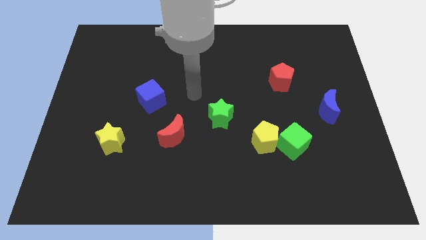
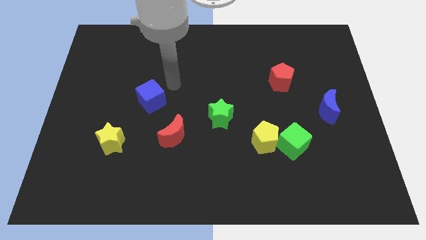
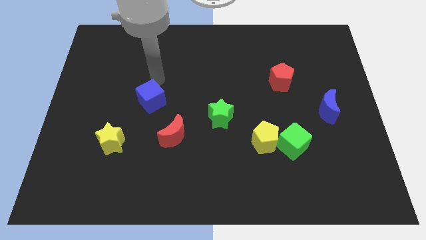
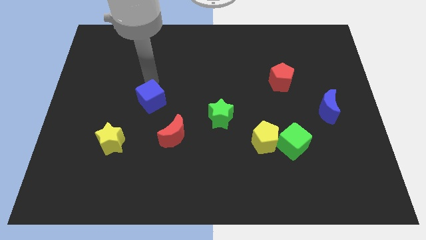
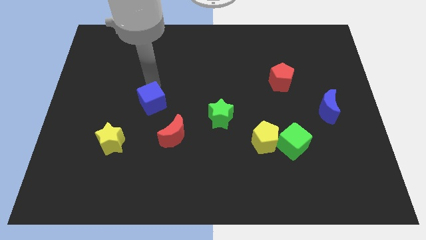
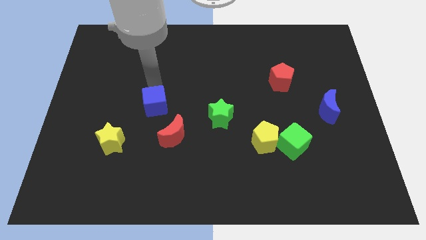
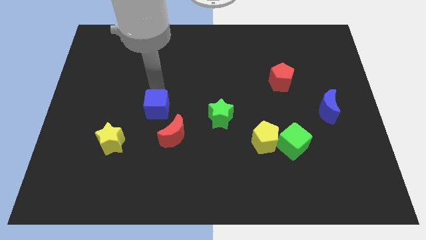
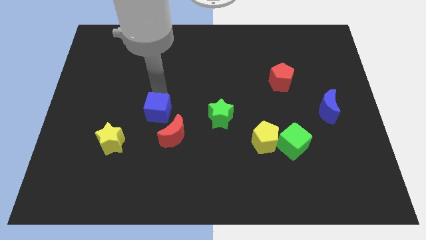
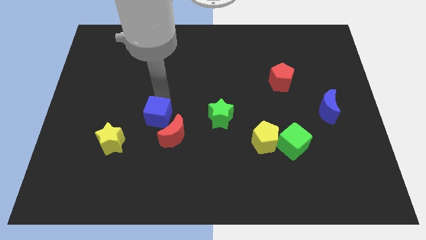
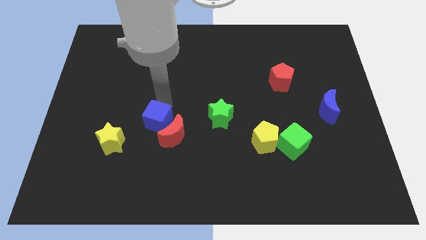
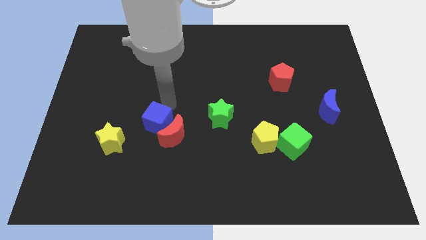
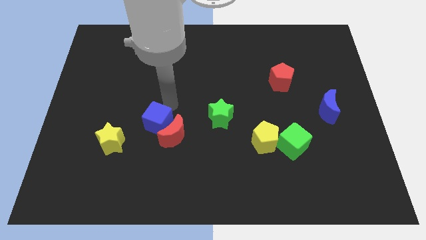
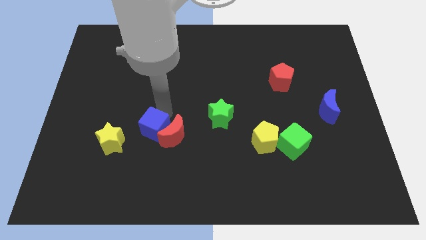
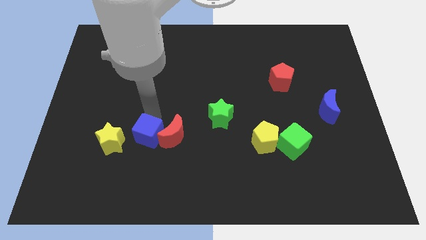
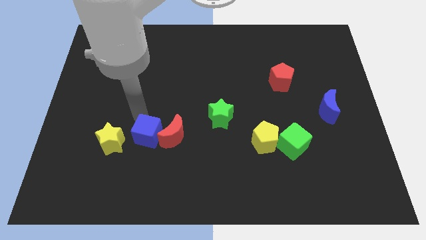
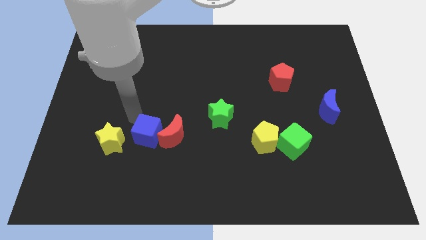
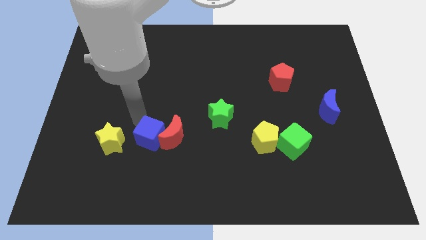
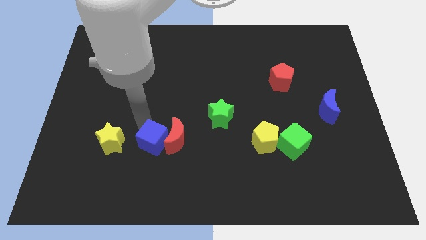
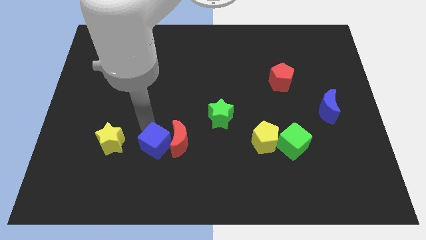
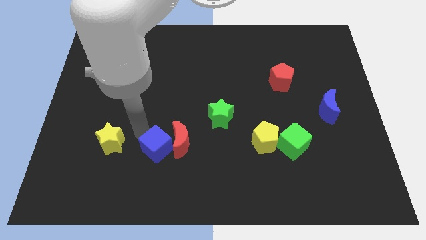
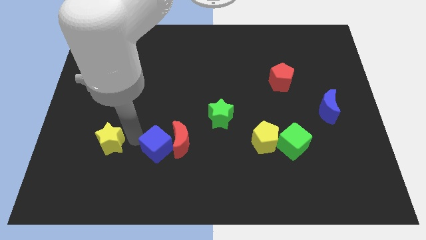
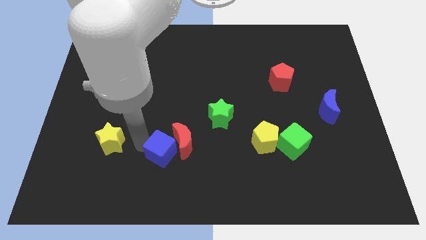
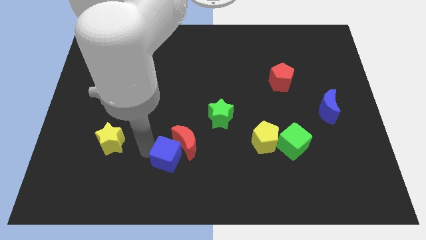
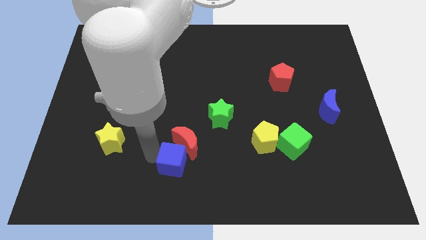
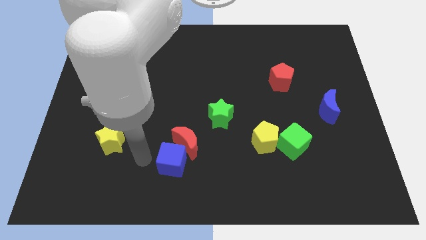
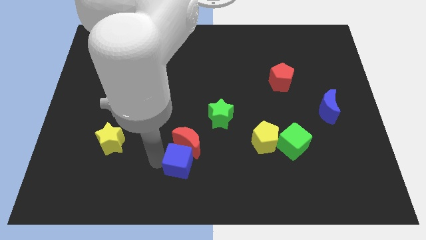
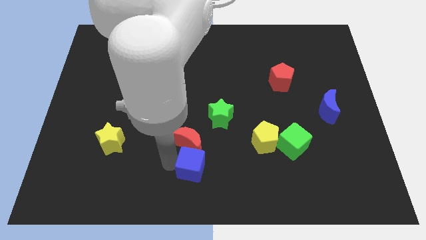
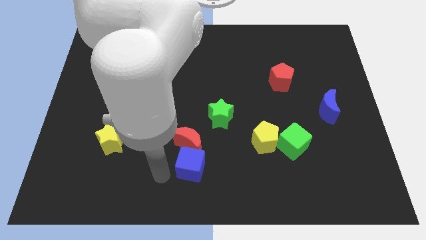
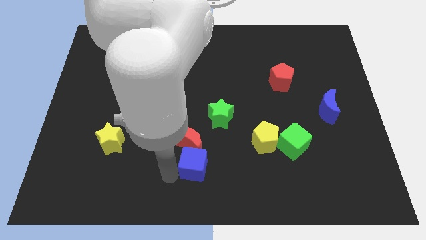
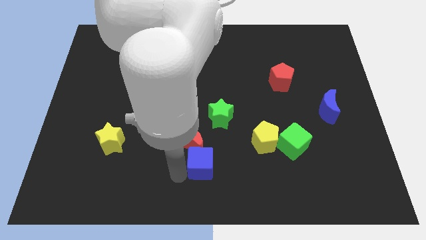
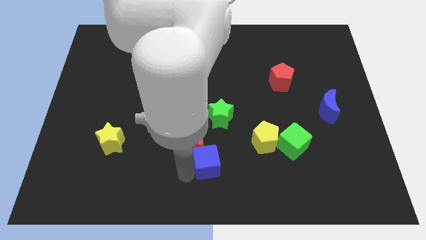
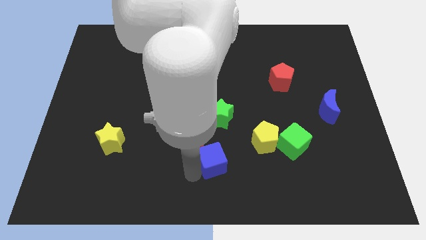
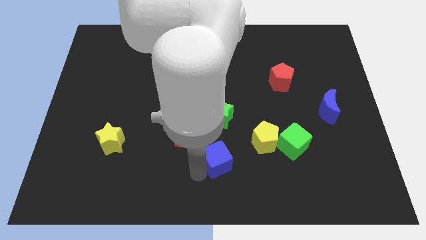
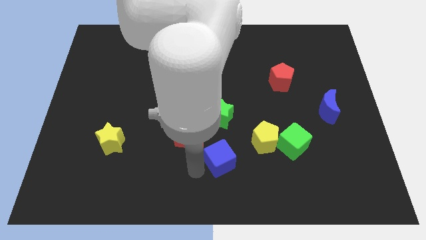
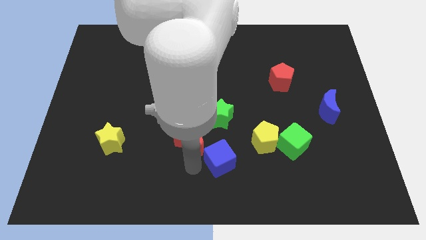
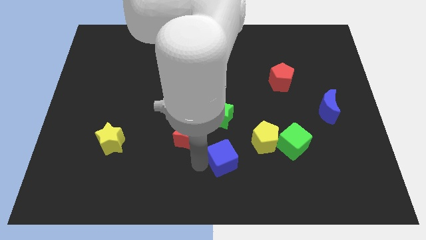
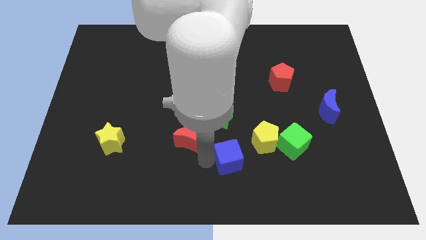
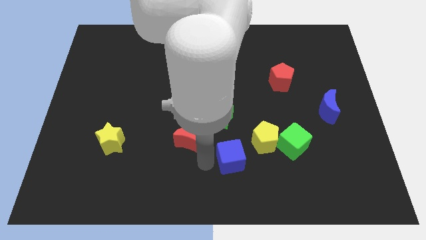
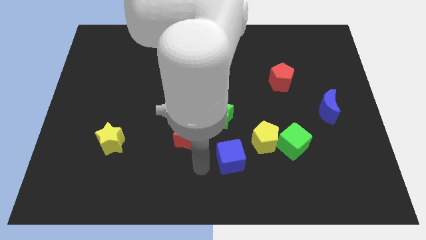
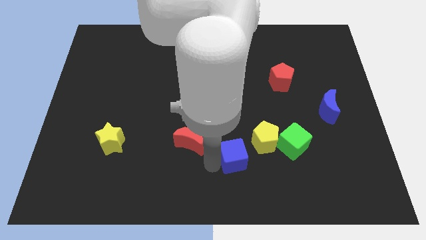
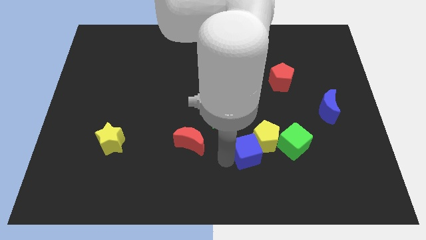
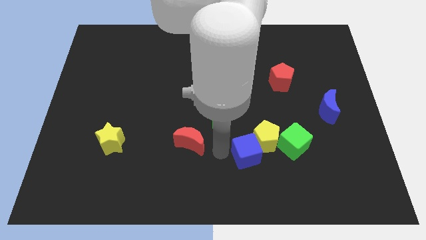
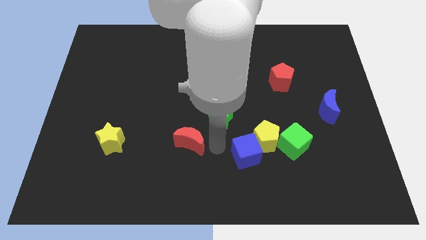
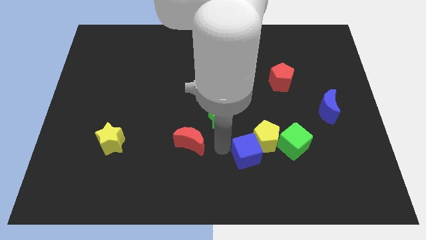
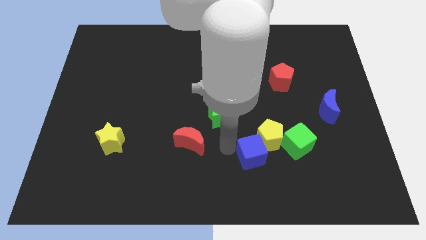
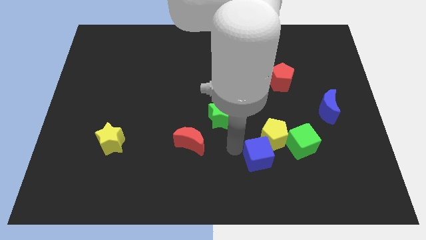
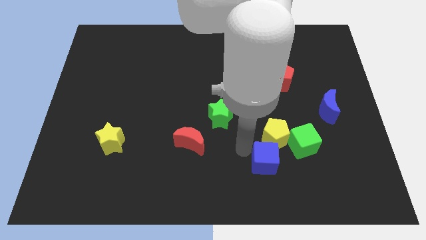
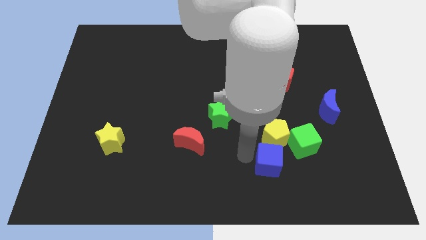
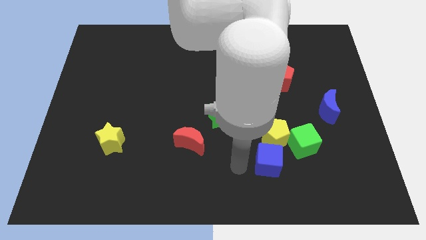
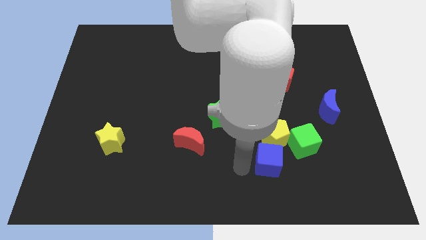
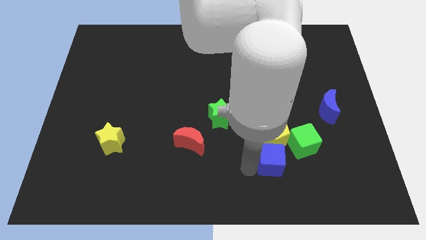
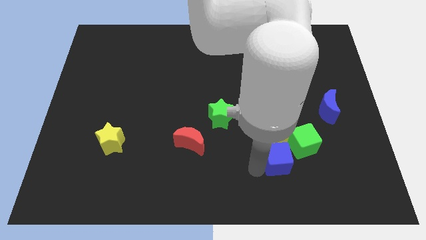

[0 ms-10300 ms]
put the blue cube diagonally down and to the right of the yellow pentagon

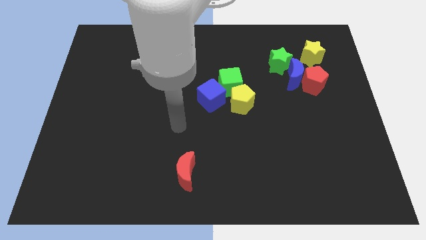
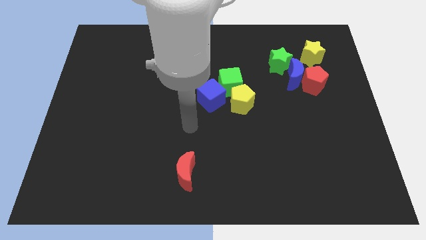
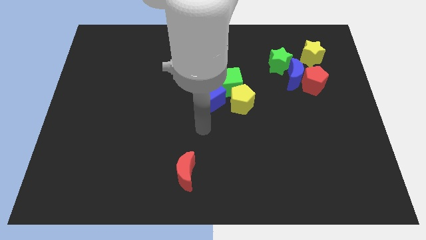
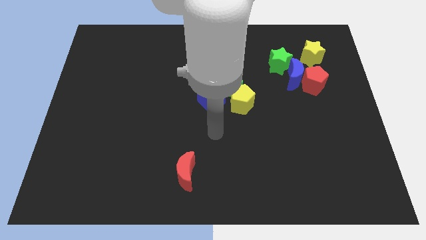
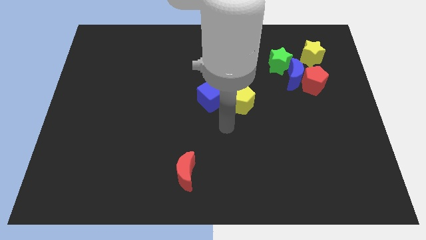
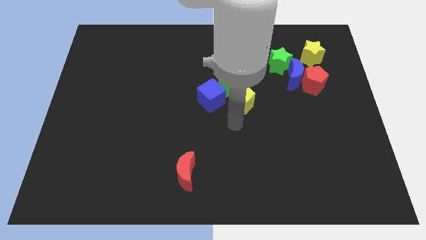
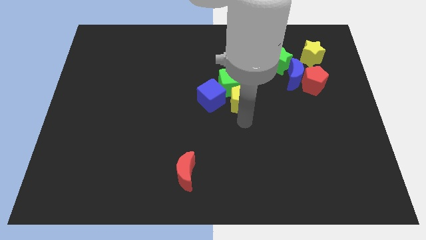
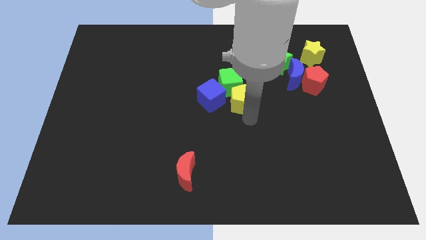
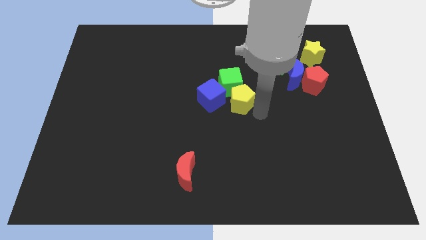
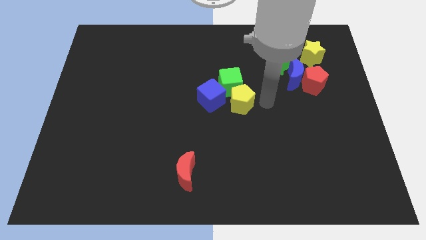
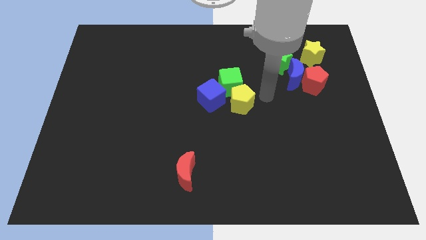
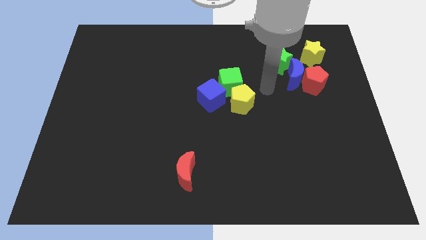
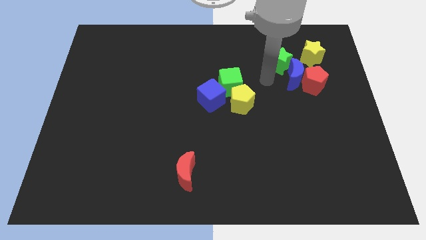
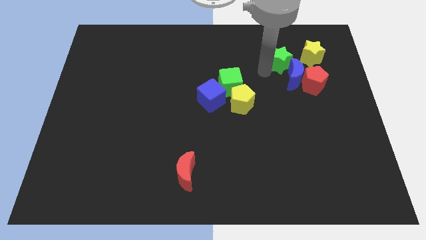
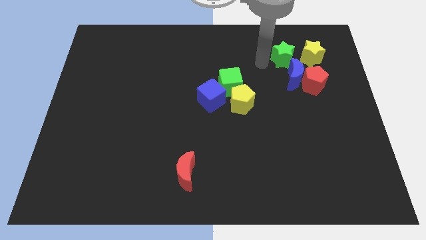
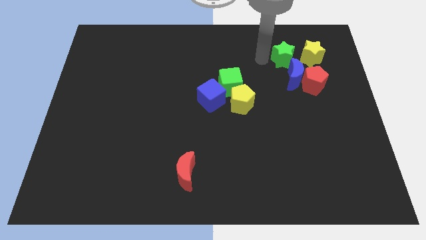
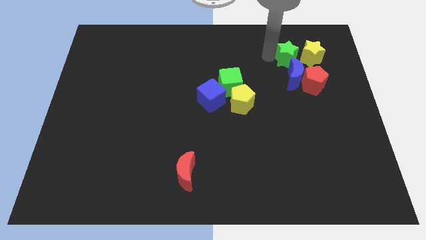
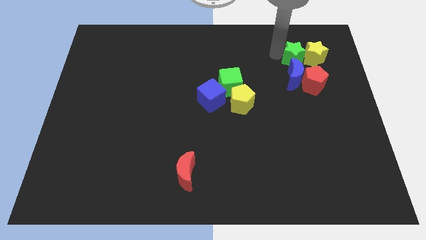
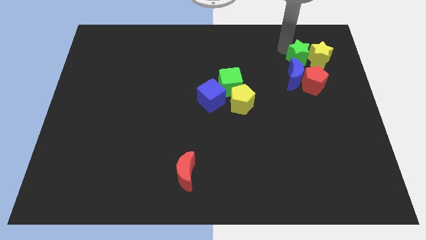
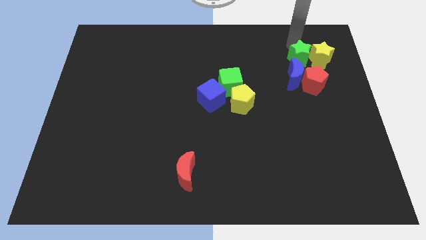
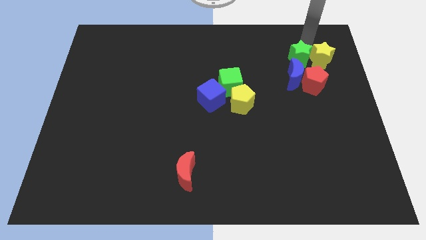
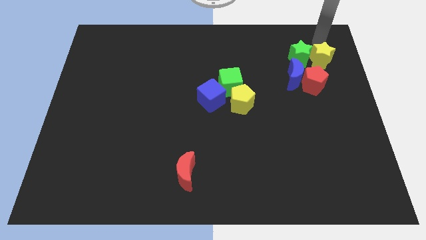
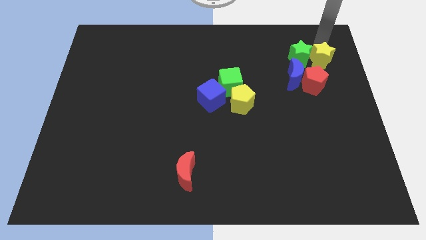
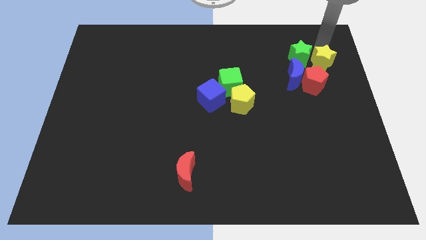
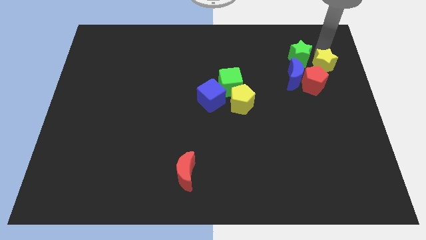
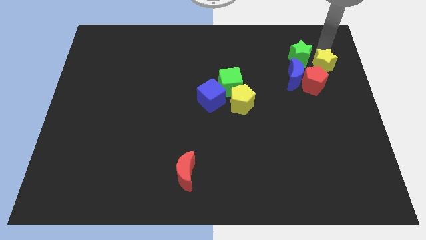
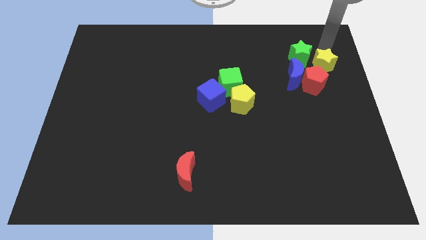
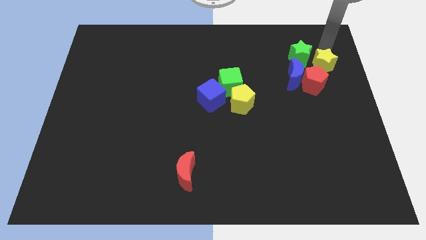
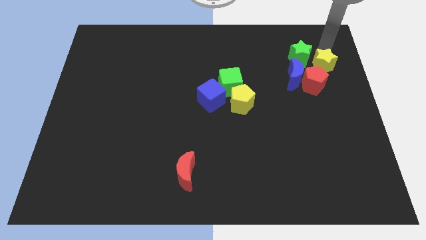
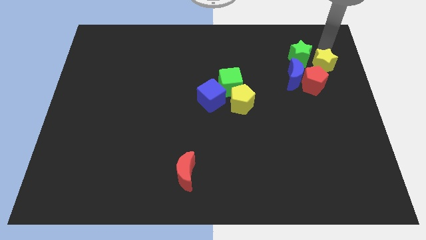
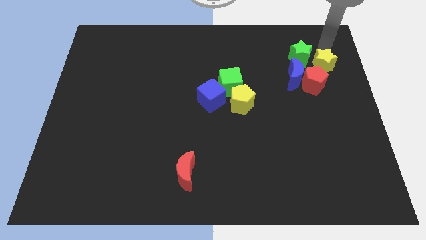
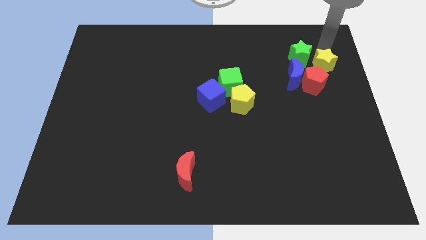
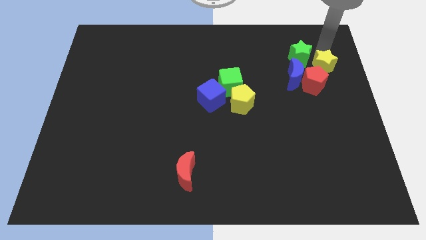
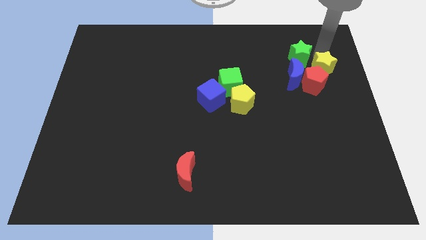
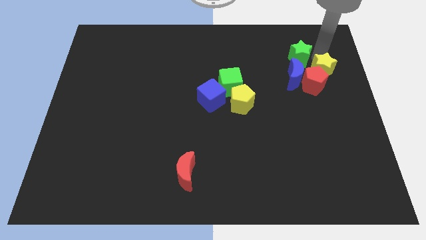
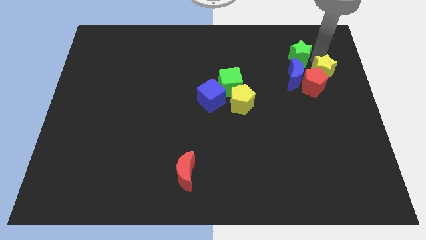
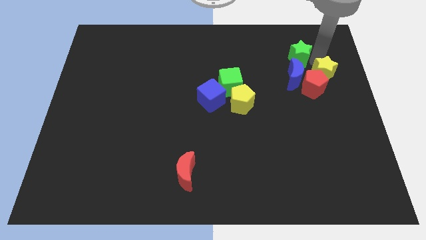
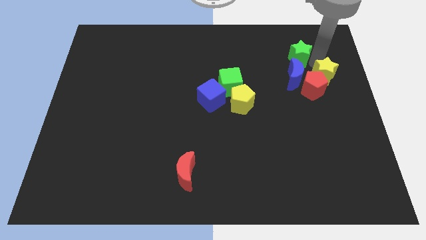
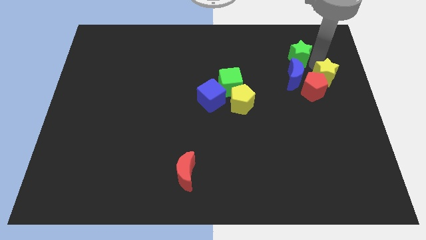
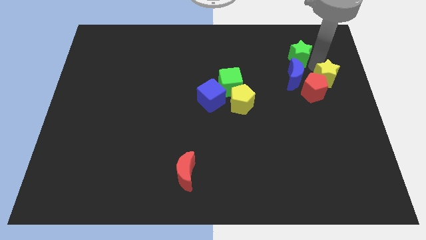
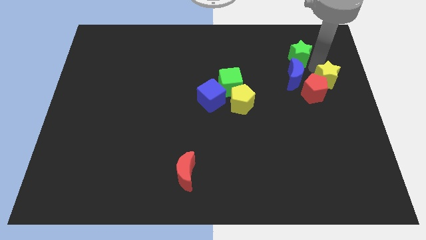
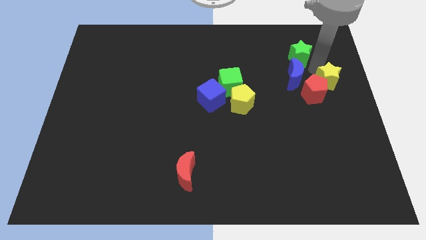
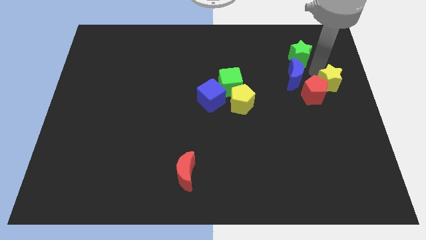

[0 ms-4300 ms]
put the yellow star to the bottom right of the blue moon
